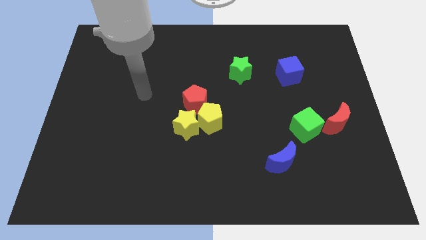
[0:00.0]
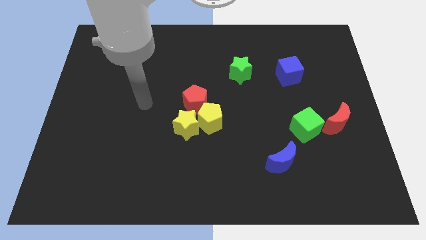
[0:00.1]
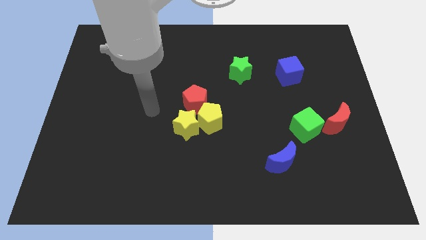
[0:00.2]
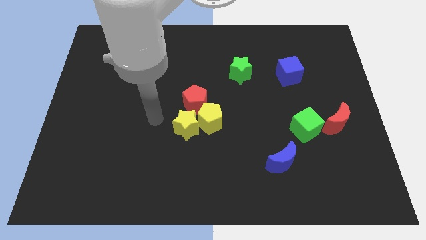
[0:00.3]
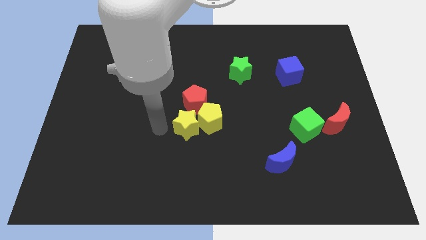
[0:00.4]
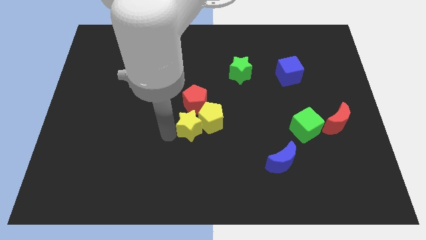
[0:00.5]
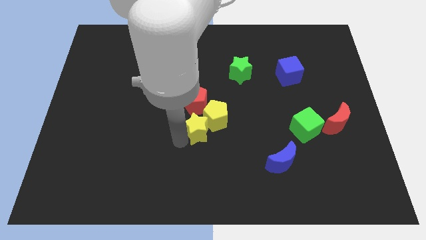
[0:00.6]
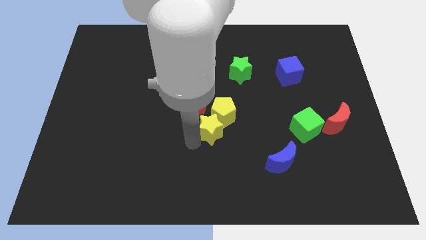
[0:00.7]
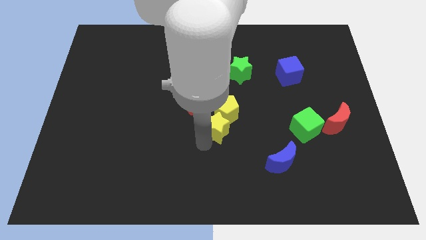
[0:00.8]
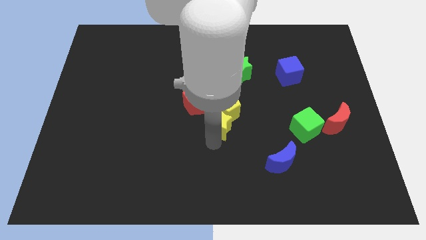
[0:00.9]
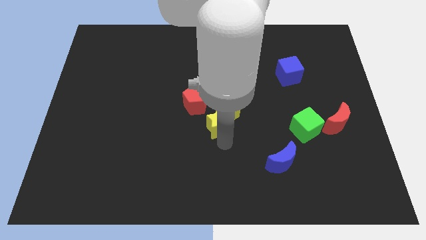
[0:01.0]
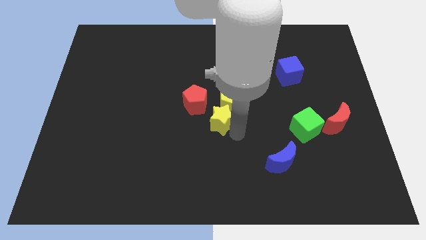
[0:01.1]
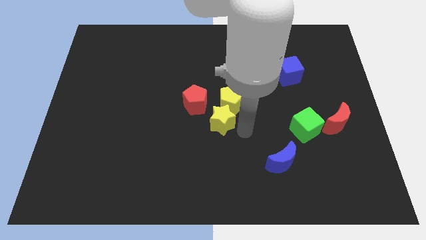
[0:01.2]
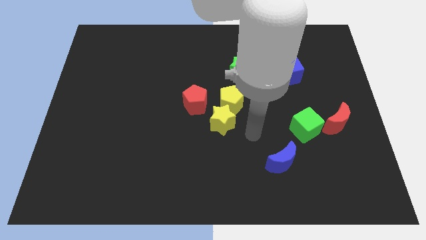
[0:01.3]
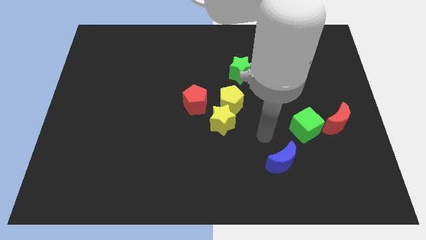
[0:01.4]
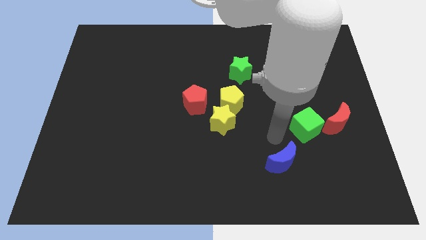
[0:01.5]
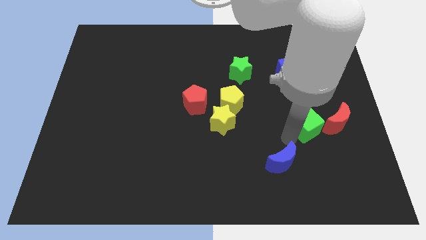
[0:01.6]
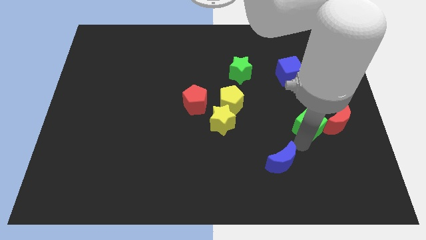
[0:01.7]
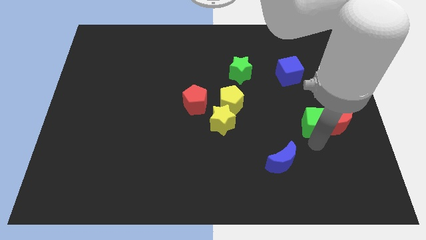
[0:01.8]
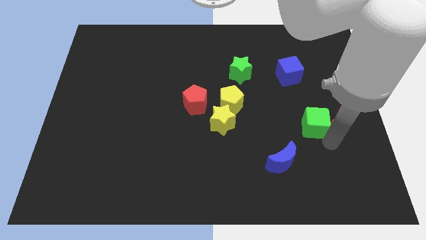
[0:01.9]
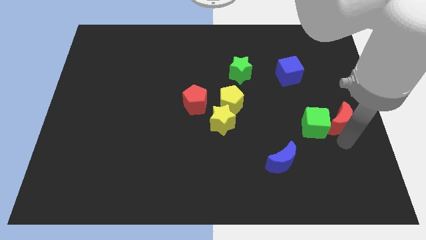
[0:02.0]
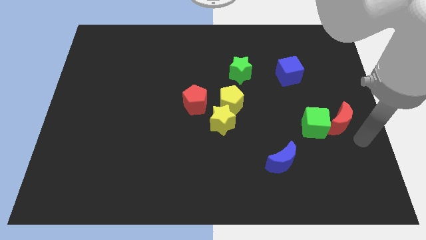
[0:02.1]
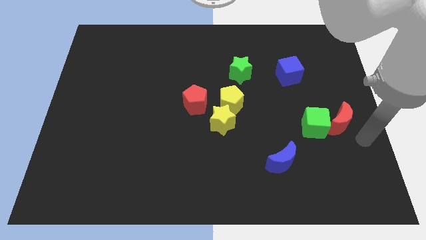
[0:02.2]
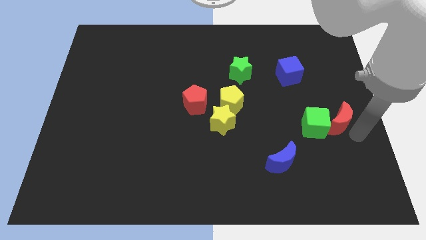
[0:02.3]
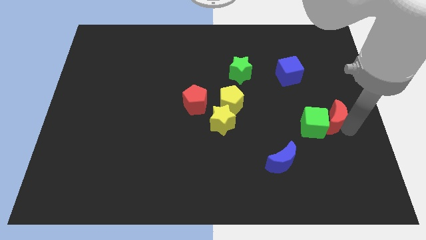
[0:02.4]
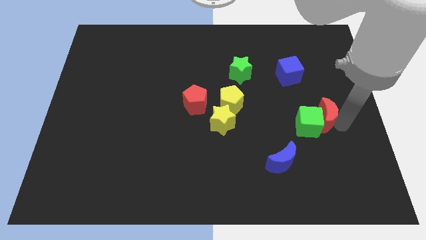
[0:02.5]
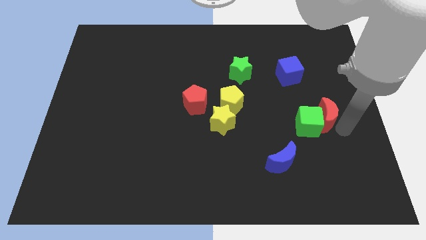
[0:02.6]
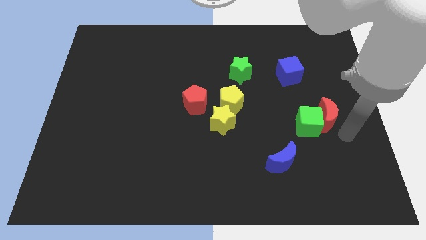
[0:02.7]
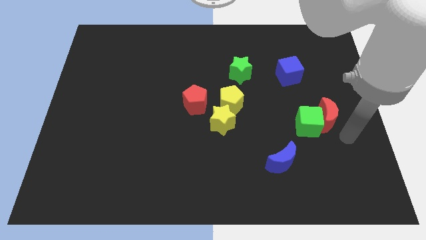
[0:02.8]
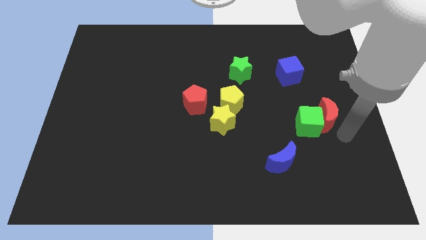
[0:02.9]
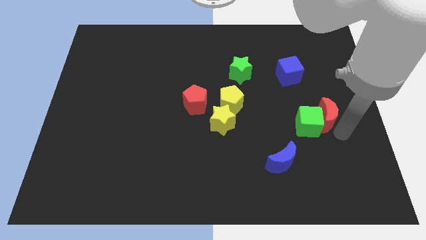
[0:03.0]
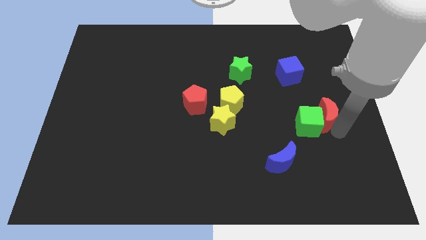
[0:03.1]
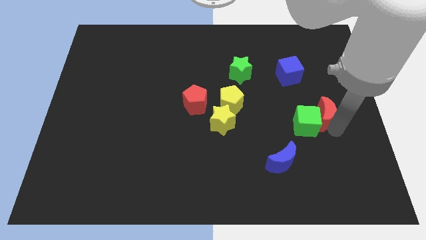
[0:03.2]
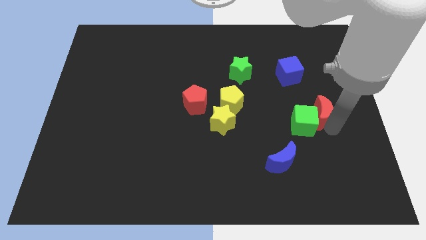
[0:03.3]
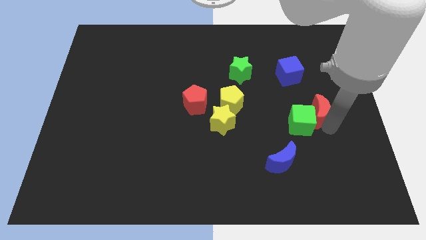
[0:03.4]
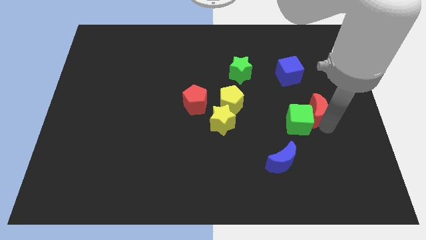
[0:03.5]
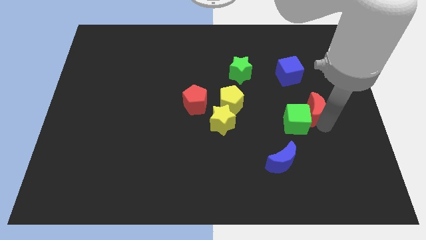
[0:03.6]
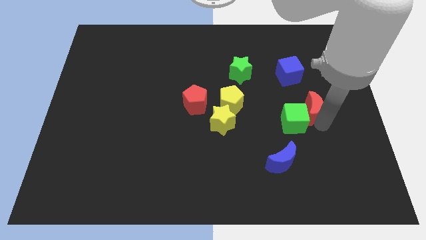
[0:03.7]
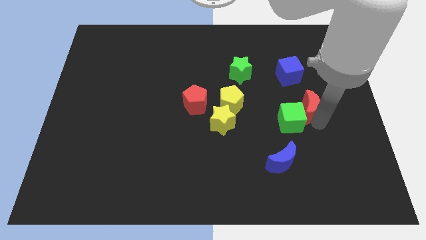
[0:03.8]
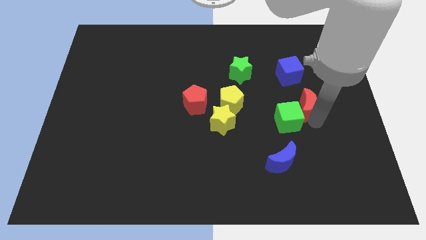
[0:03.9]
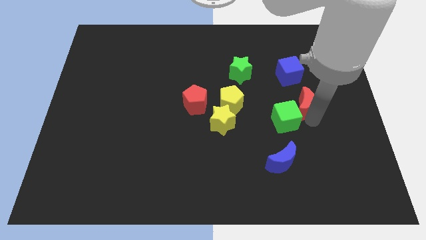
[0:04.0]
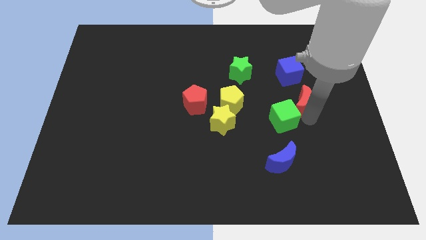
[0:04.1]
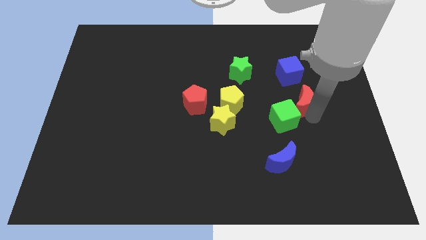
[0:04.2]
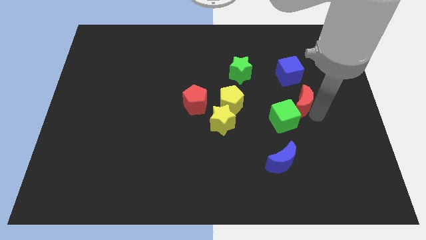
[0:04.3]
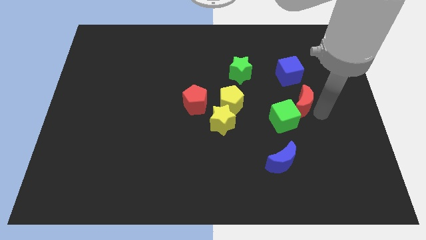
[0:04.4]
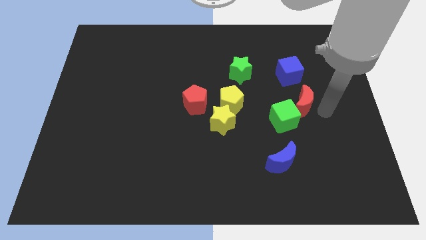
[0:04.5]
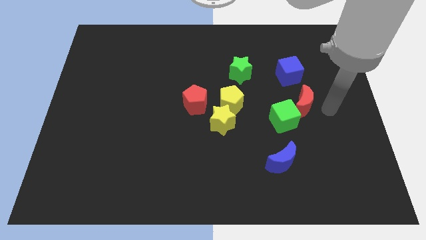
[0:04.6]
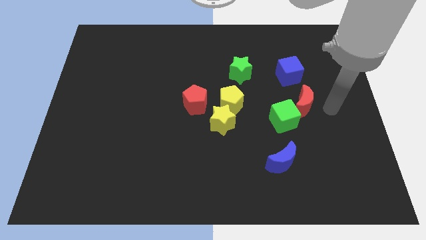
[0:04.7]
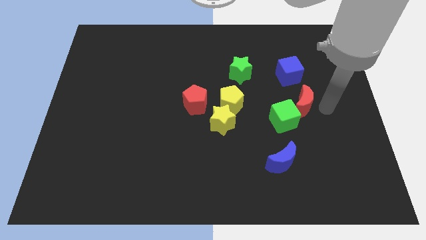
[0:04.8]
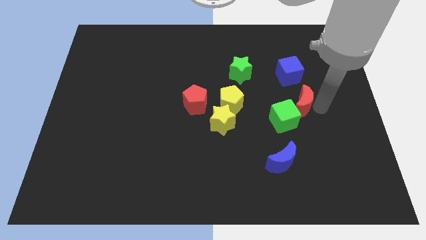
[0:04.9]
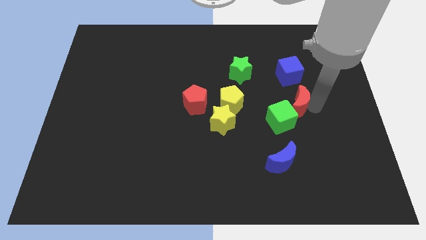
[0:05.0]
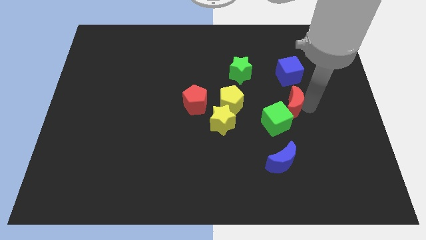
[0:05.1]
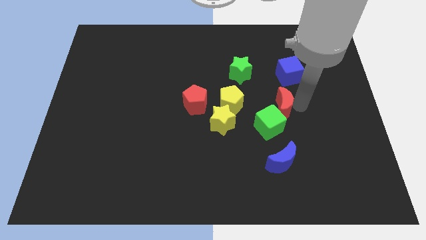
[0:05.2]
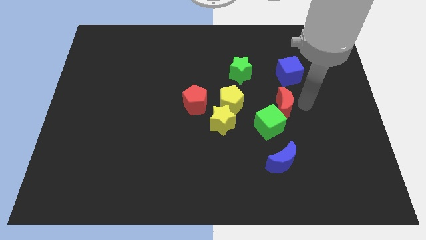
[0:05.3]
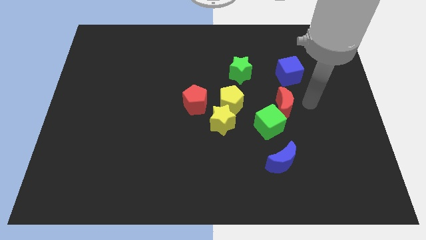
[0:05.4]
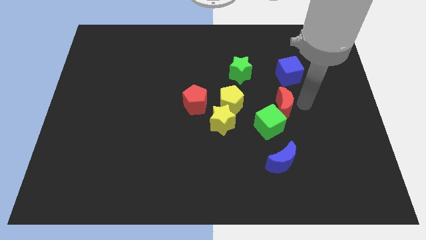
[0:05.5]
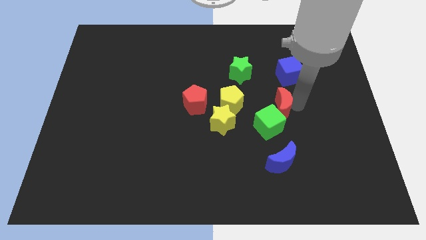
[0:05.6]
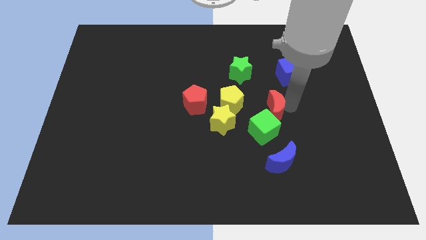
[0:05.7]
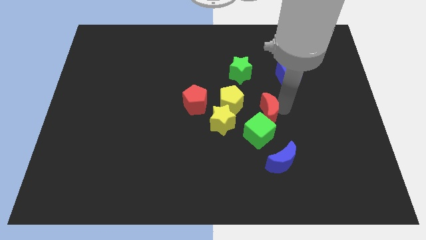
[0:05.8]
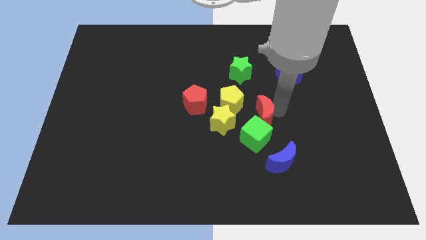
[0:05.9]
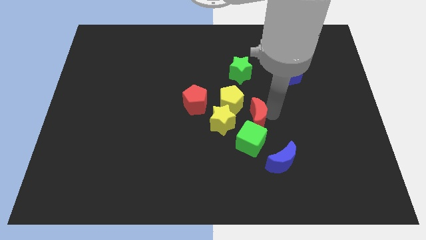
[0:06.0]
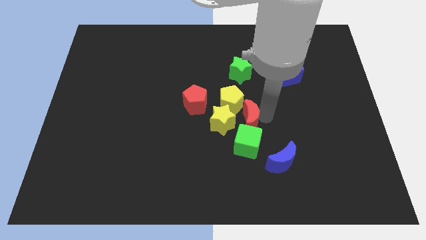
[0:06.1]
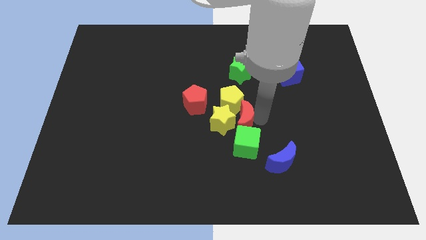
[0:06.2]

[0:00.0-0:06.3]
move the red moon close to the yellow pentagon
